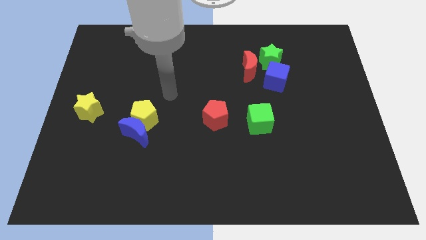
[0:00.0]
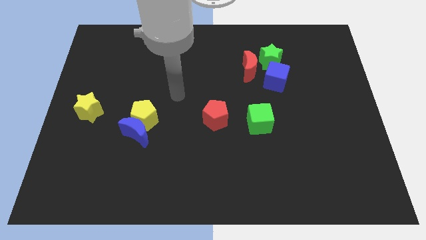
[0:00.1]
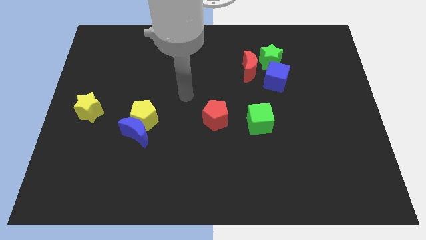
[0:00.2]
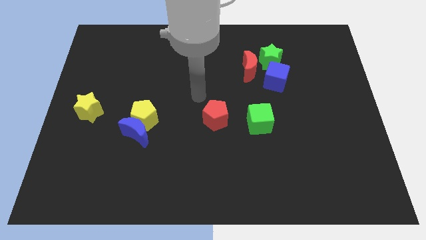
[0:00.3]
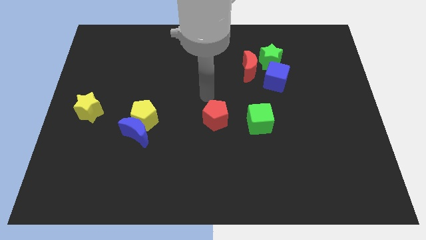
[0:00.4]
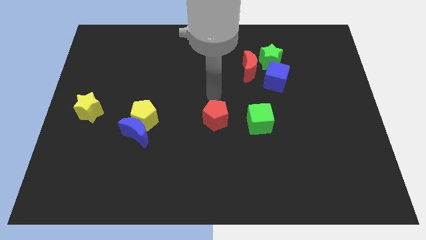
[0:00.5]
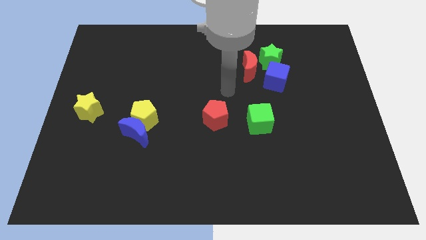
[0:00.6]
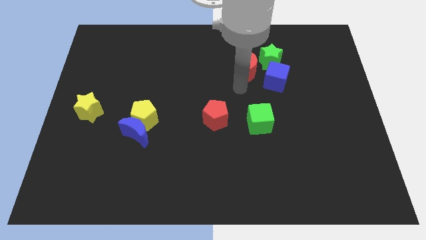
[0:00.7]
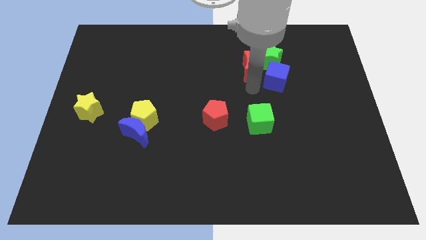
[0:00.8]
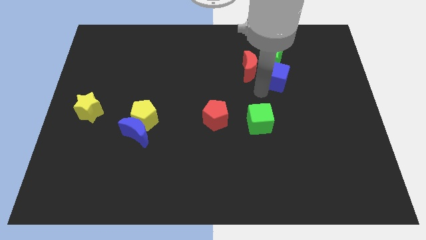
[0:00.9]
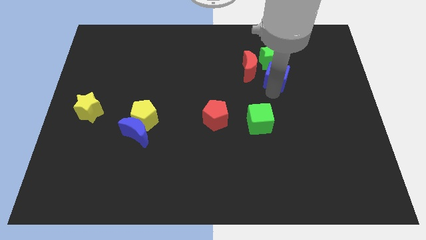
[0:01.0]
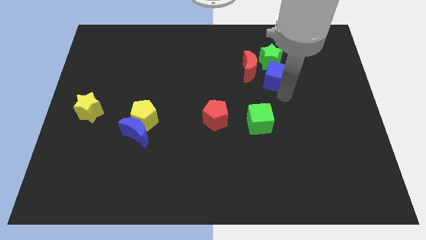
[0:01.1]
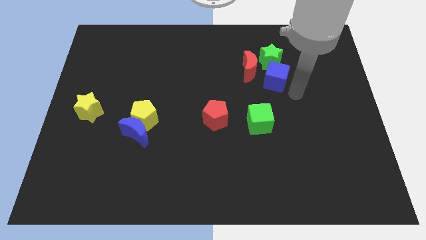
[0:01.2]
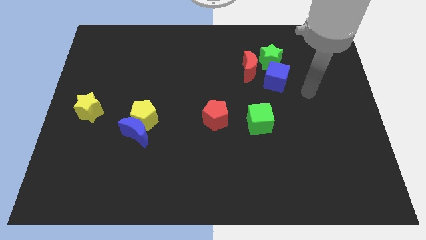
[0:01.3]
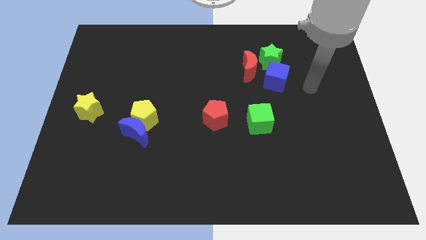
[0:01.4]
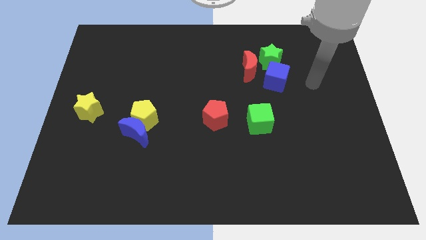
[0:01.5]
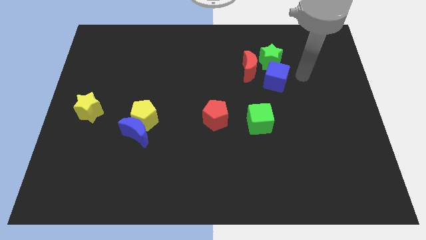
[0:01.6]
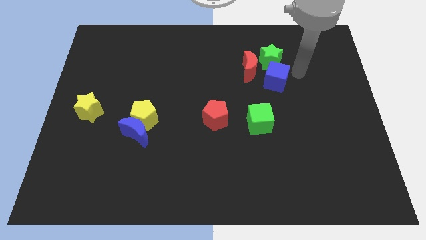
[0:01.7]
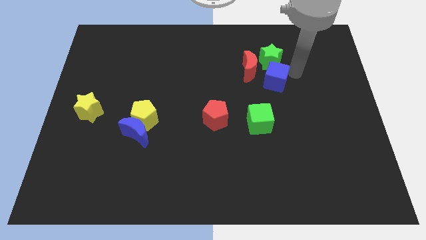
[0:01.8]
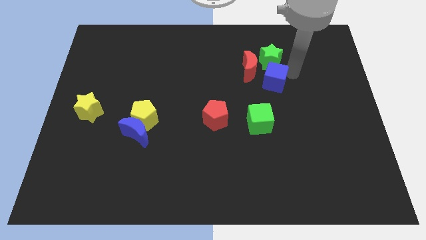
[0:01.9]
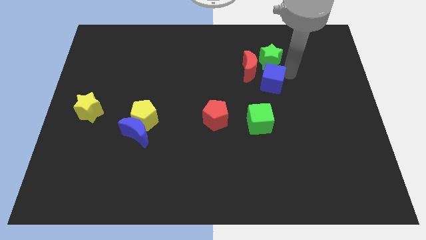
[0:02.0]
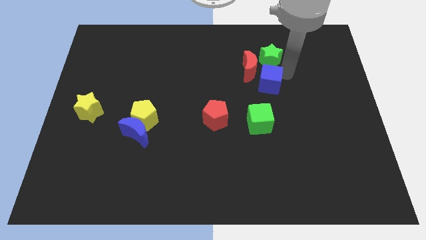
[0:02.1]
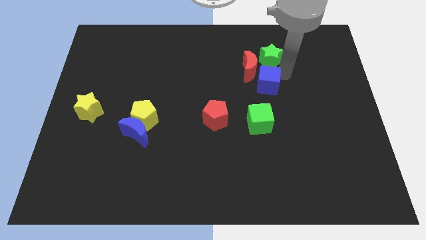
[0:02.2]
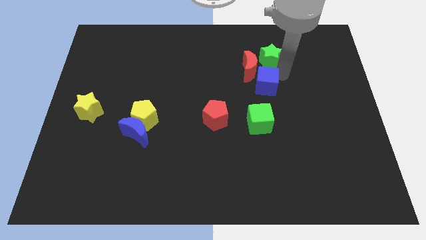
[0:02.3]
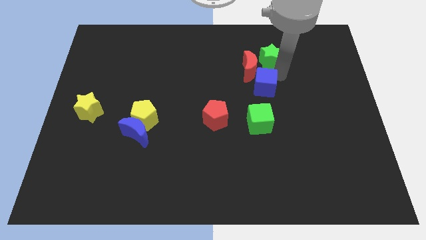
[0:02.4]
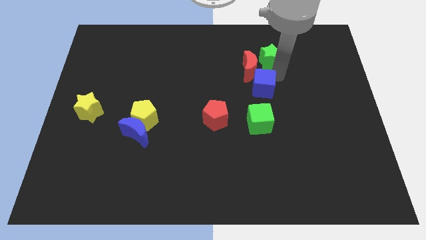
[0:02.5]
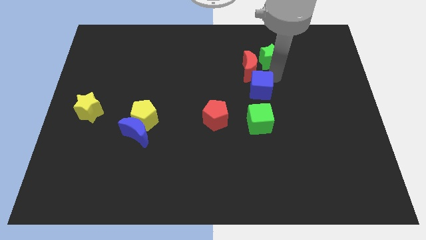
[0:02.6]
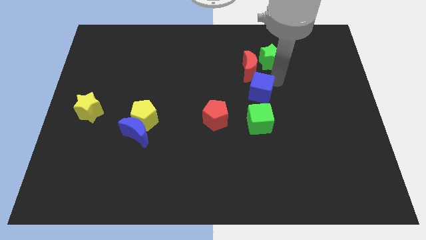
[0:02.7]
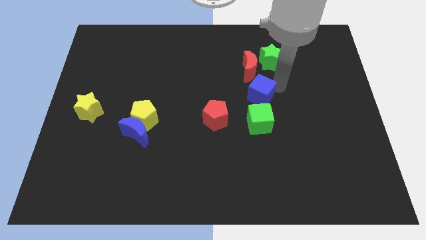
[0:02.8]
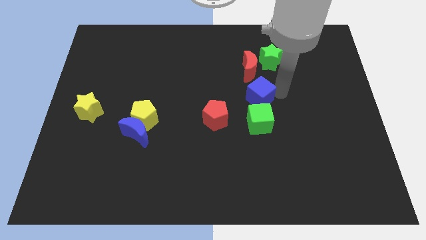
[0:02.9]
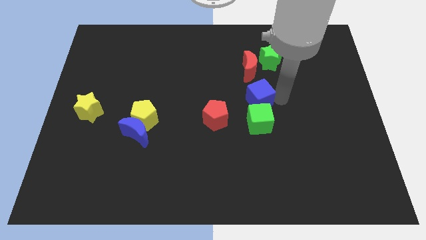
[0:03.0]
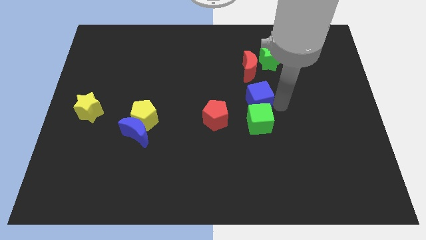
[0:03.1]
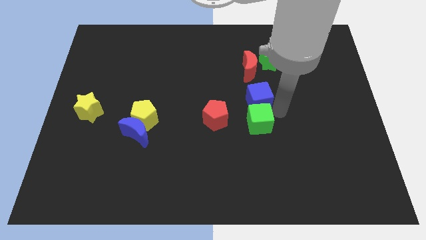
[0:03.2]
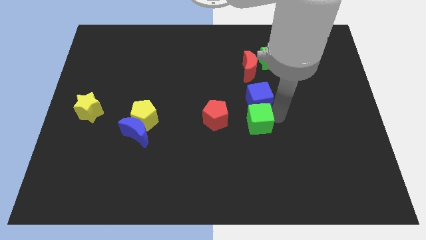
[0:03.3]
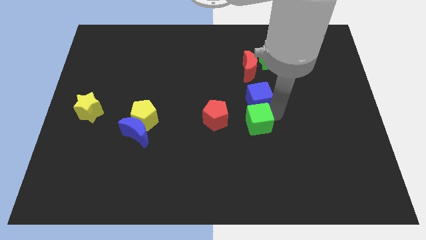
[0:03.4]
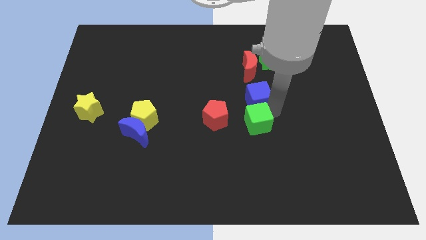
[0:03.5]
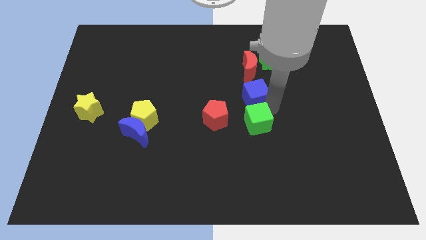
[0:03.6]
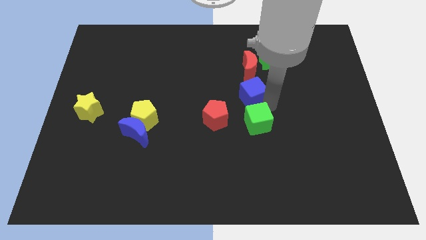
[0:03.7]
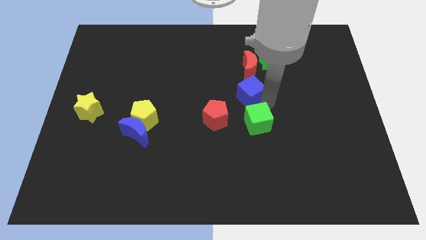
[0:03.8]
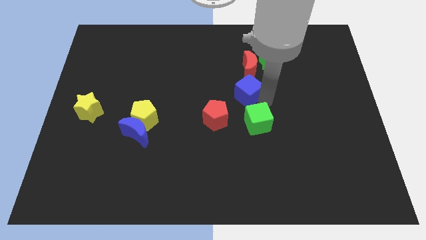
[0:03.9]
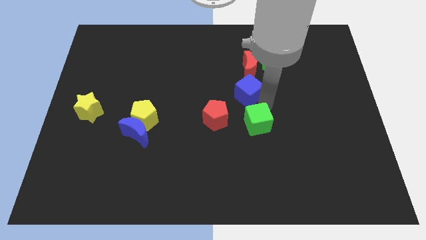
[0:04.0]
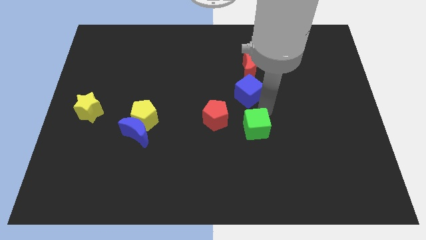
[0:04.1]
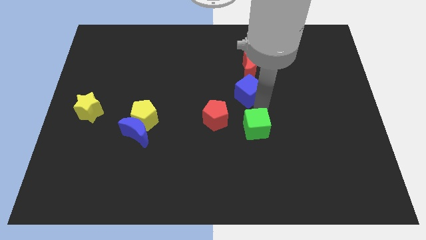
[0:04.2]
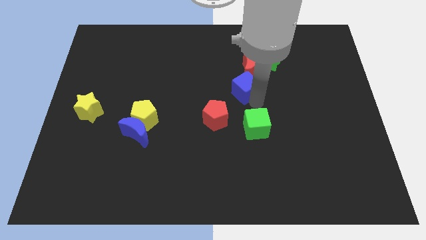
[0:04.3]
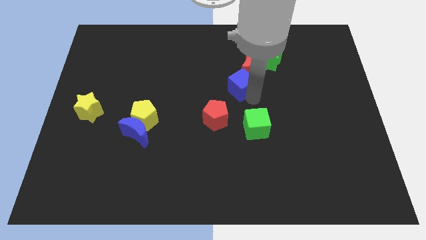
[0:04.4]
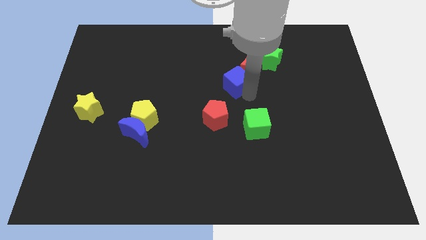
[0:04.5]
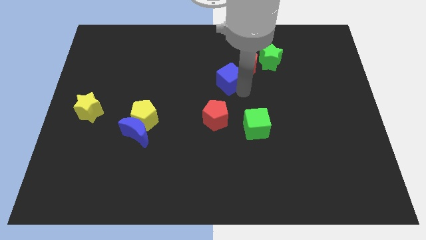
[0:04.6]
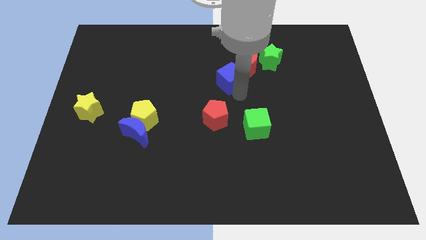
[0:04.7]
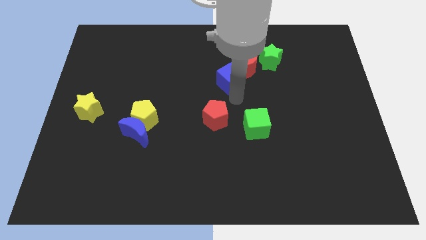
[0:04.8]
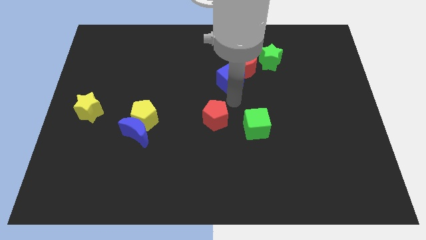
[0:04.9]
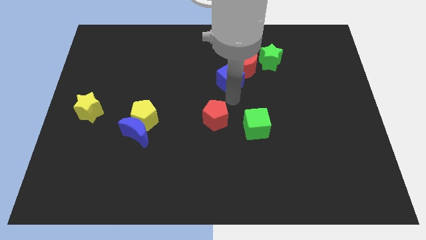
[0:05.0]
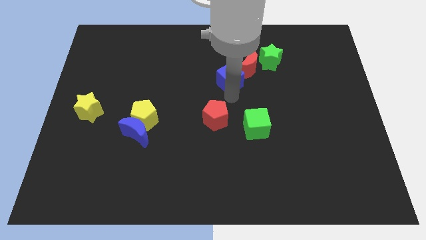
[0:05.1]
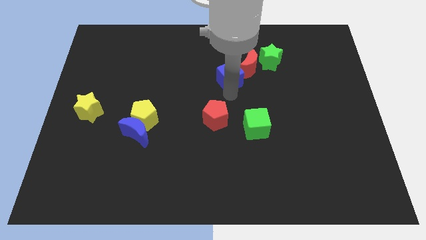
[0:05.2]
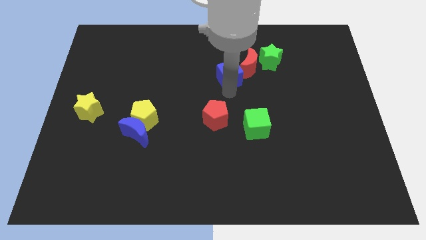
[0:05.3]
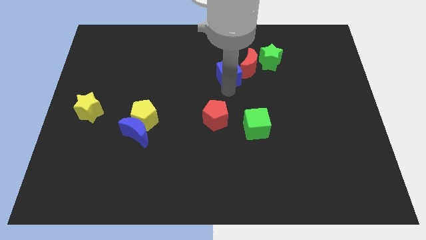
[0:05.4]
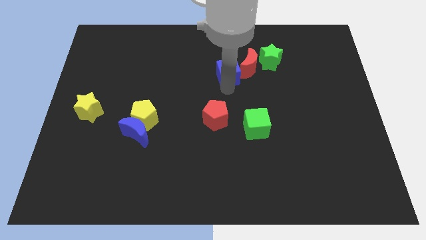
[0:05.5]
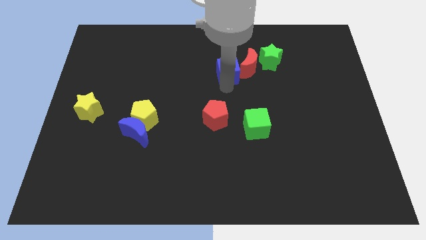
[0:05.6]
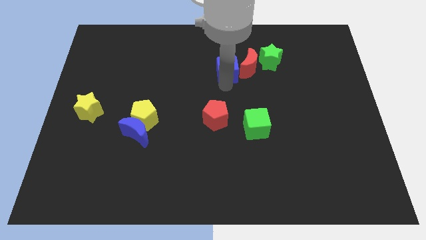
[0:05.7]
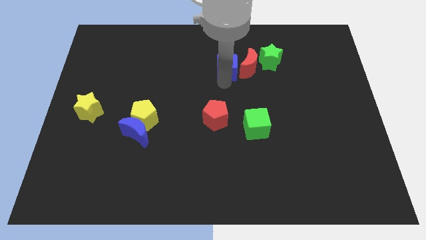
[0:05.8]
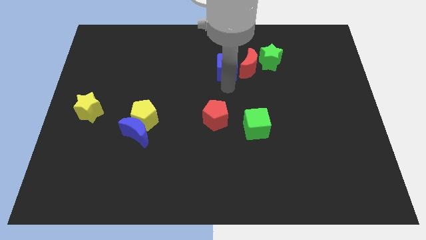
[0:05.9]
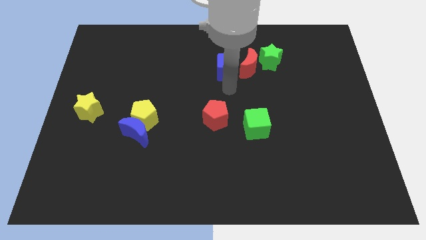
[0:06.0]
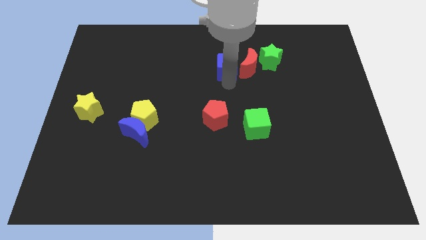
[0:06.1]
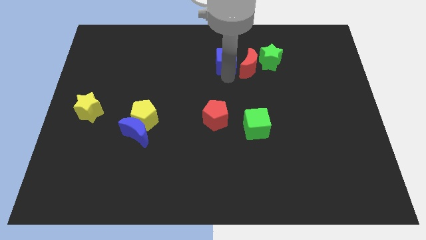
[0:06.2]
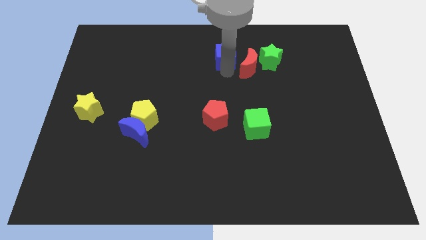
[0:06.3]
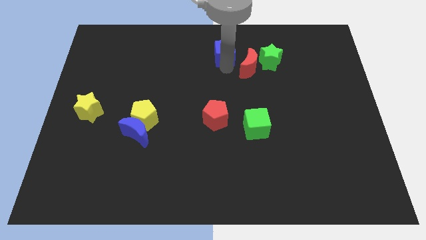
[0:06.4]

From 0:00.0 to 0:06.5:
push the blue cube to the towards your base

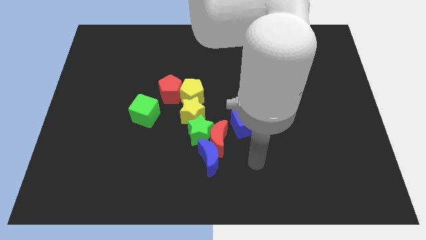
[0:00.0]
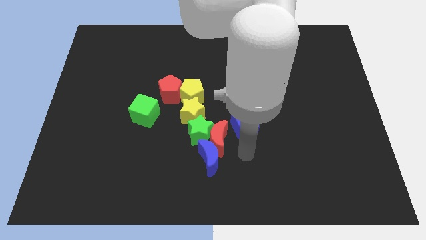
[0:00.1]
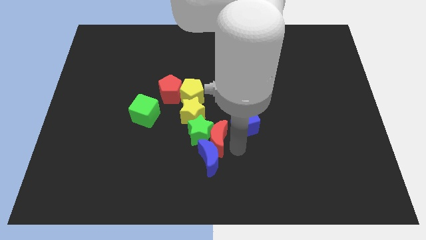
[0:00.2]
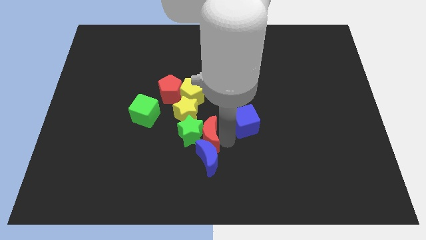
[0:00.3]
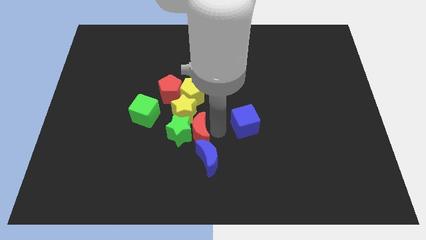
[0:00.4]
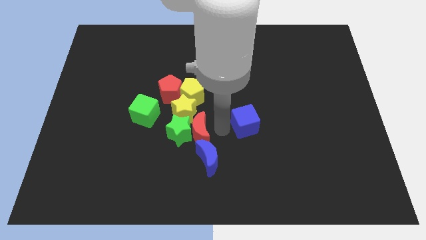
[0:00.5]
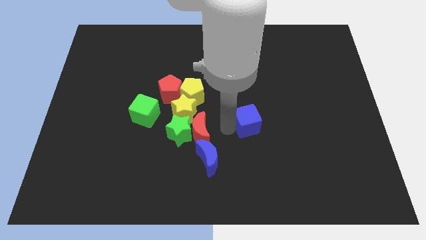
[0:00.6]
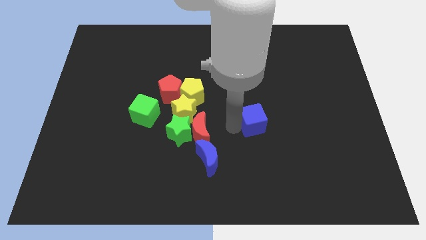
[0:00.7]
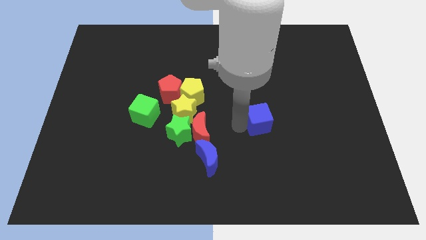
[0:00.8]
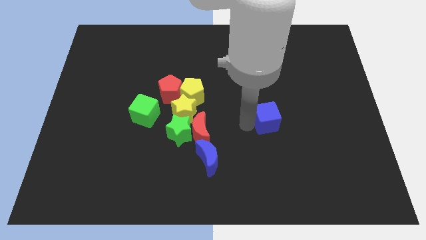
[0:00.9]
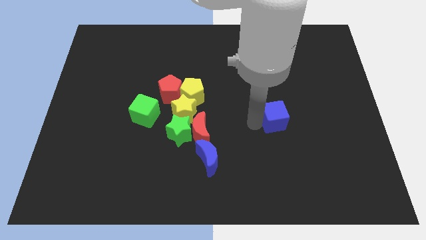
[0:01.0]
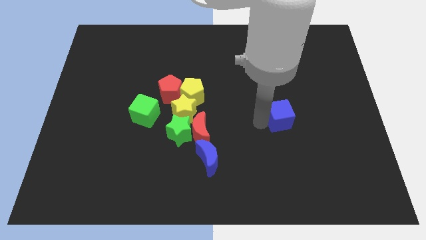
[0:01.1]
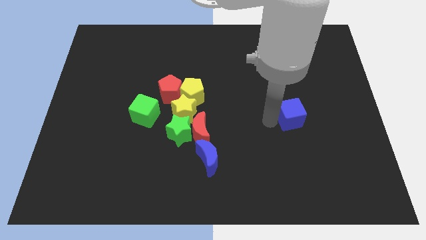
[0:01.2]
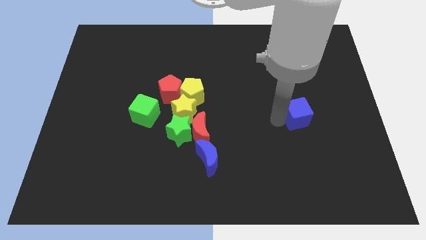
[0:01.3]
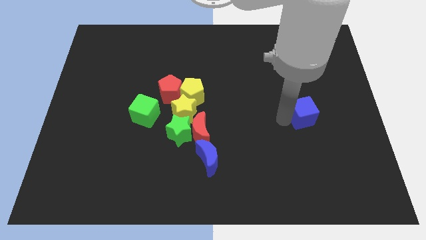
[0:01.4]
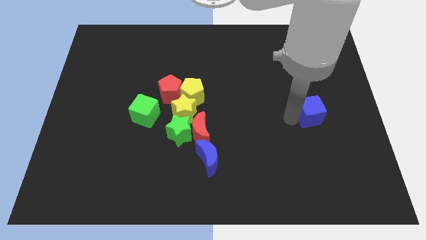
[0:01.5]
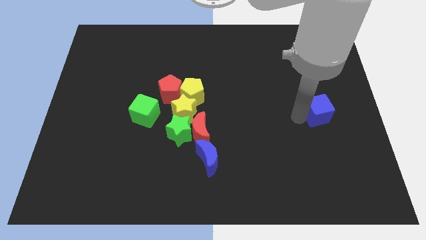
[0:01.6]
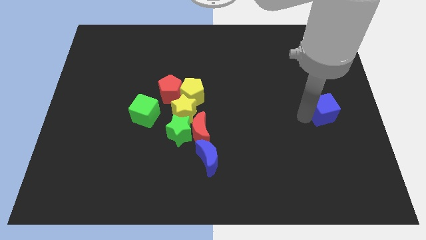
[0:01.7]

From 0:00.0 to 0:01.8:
push the blue cube to the right side of the board
